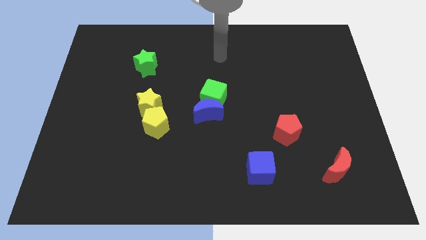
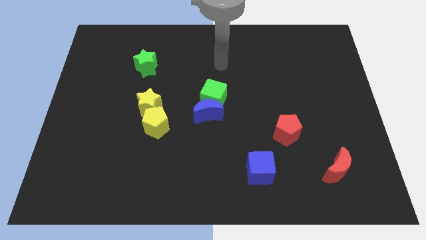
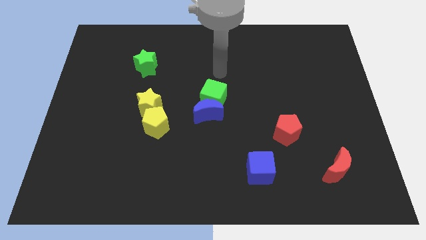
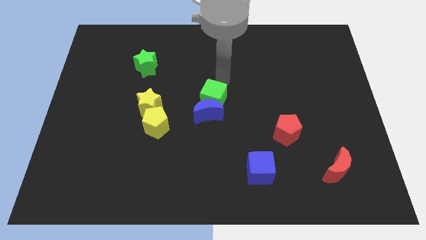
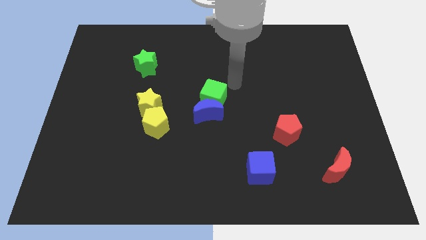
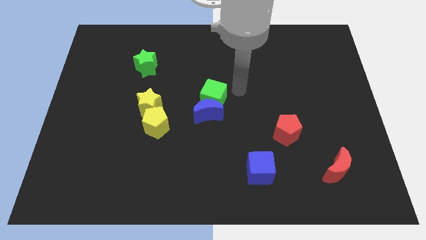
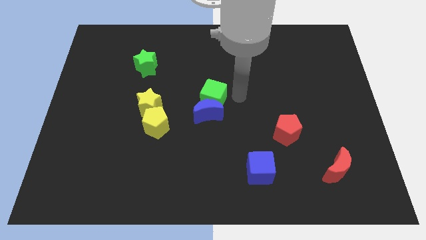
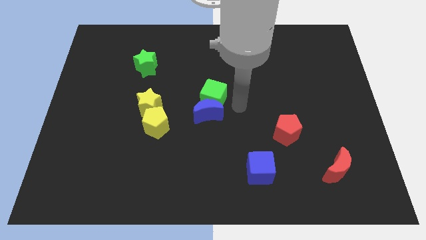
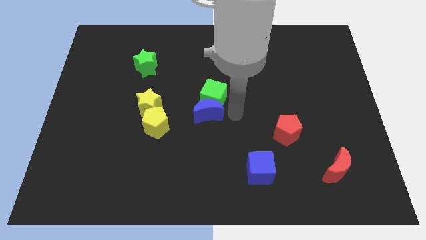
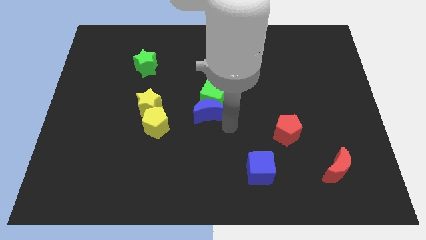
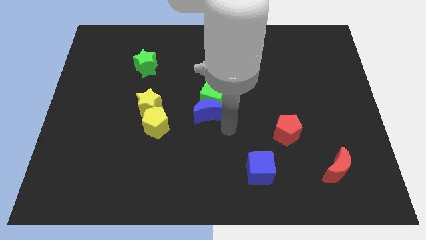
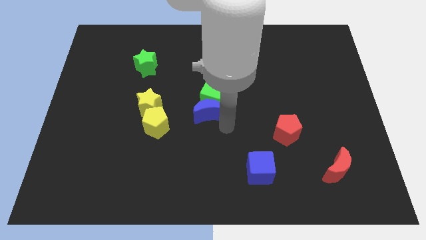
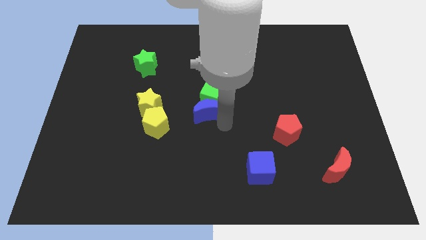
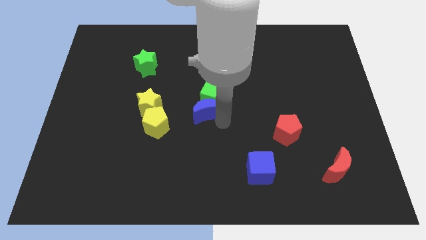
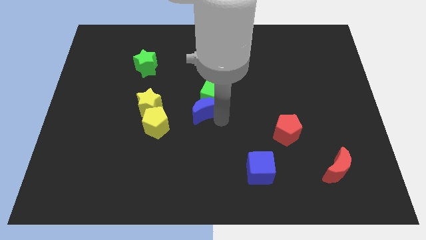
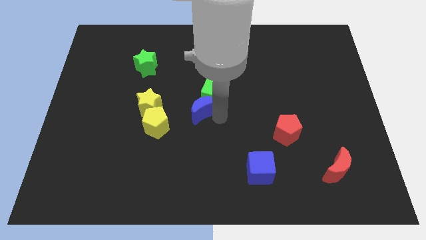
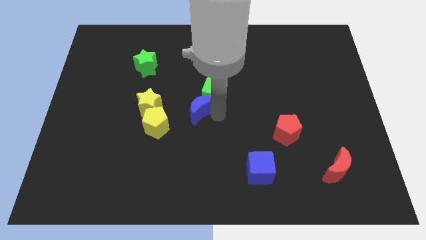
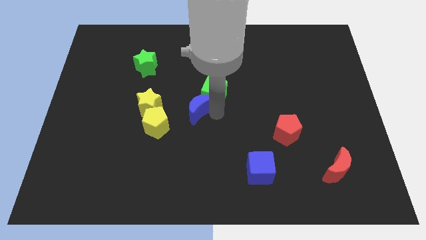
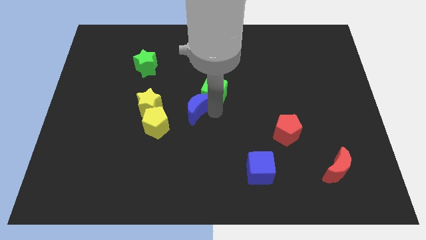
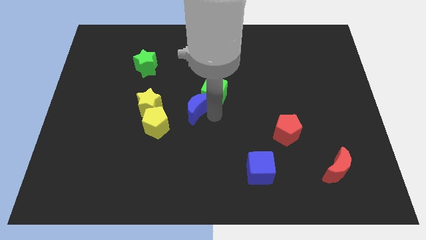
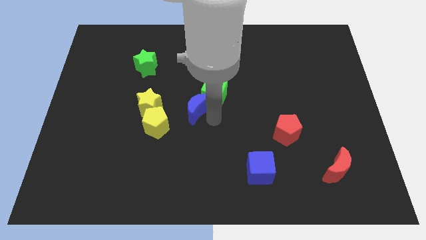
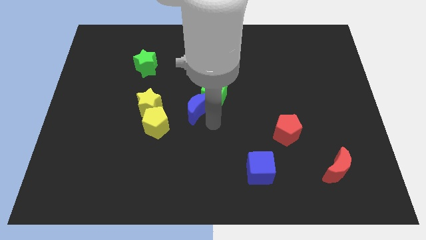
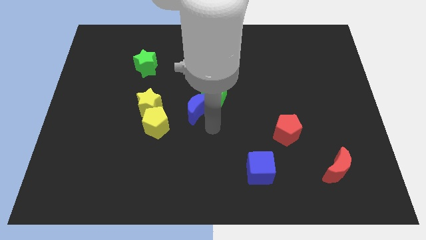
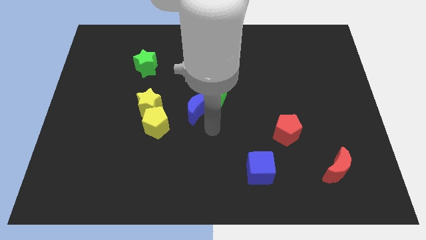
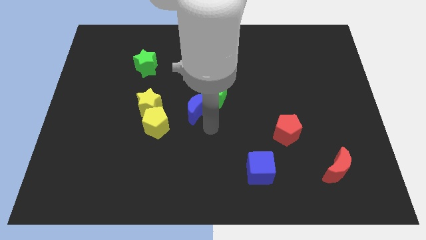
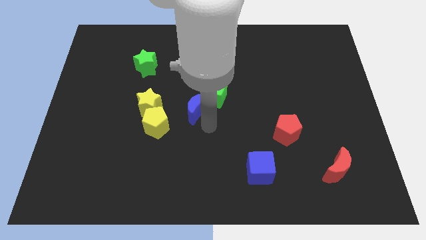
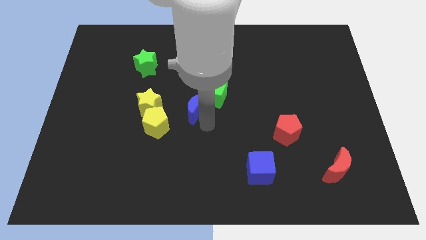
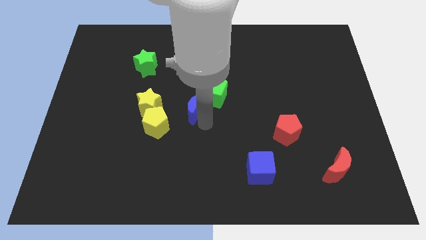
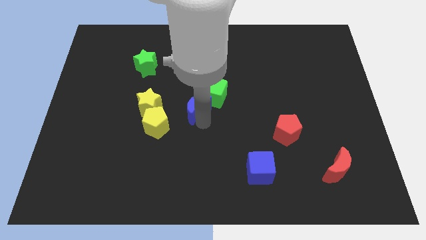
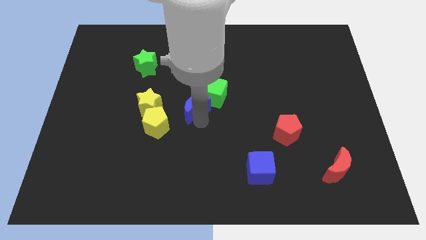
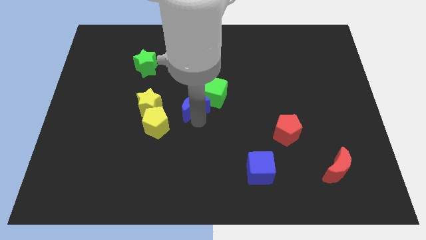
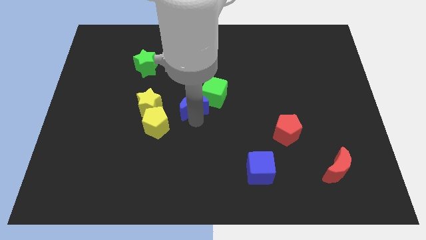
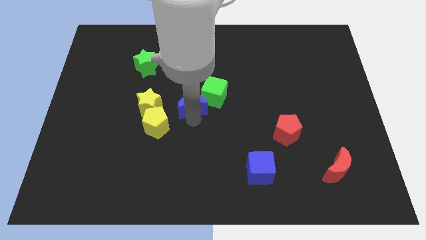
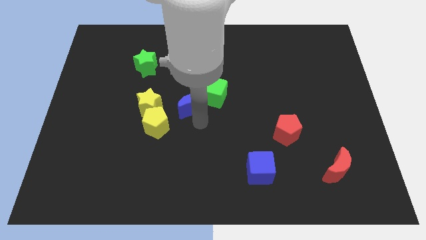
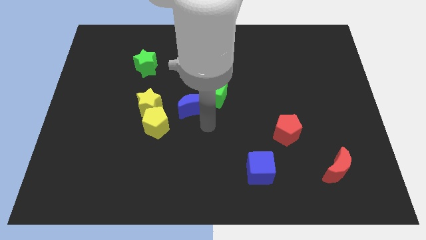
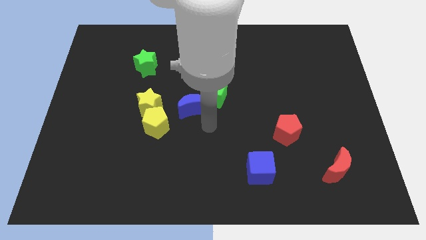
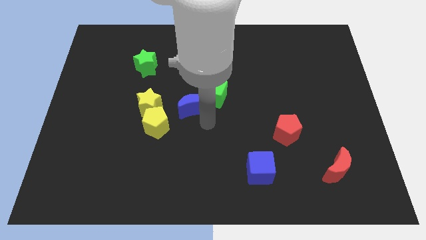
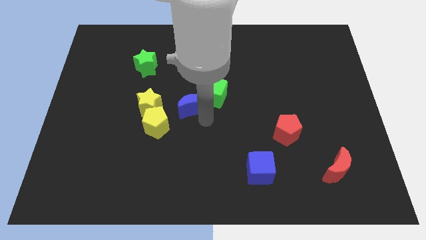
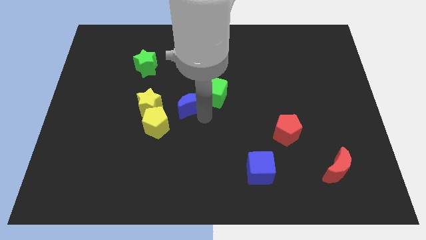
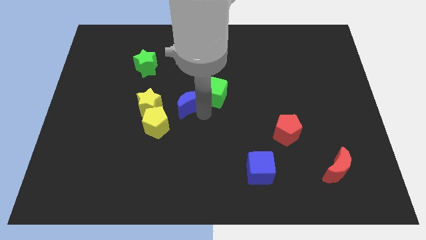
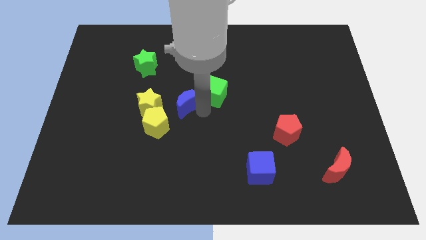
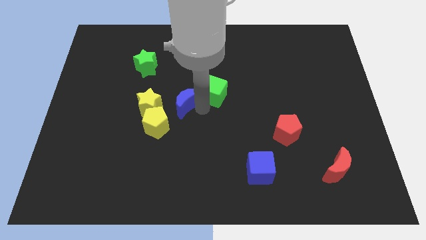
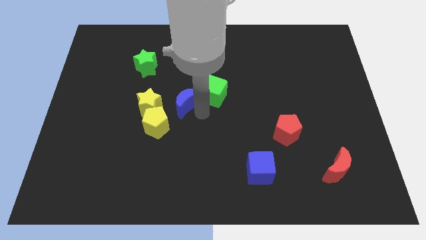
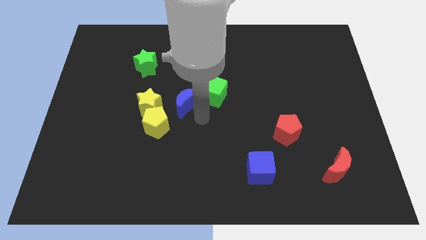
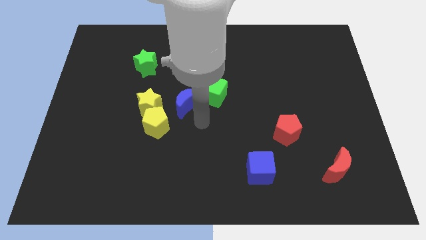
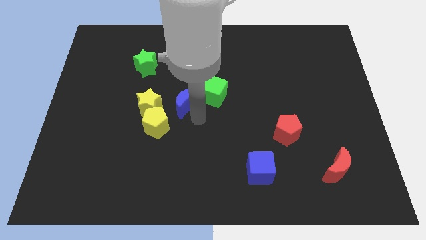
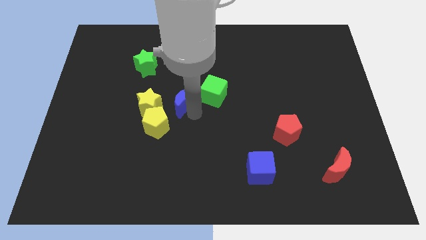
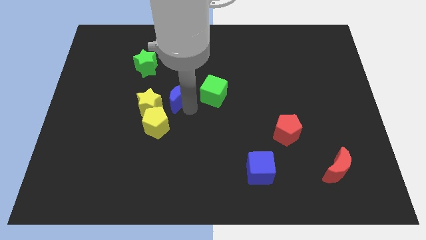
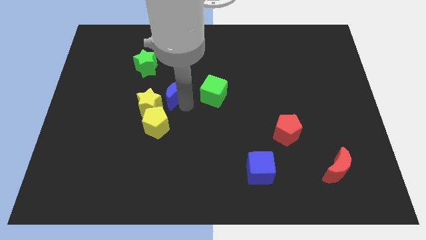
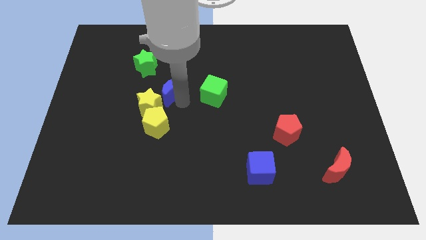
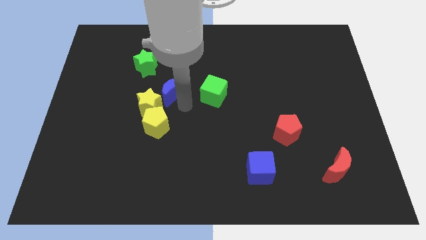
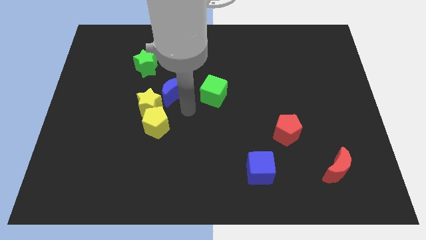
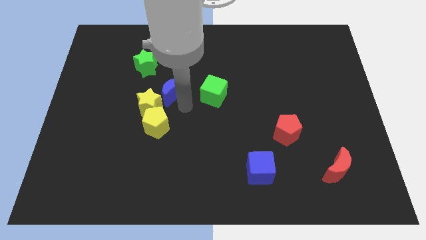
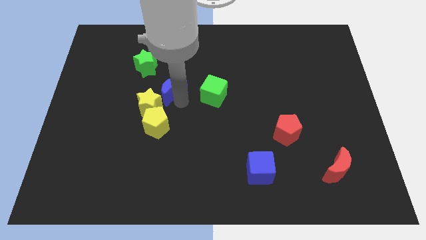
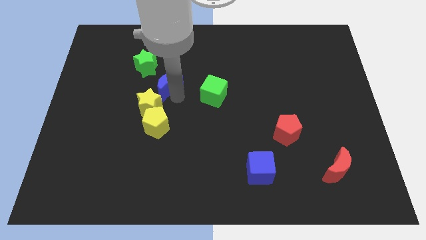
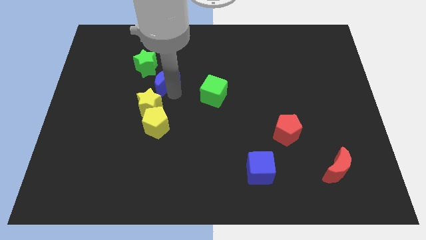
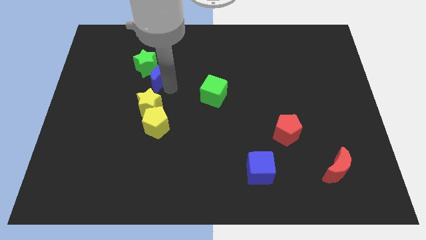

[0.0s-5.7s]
put the blue moon towards the green star

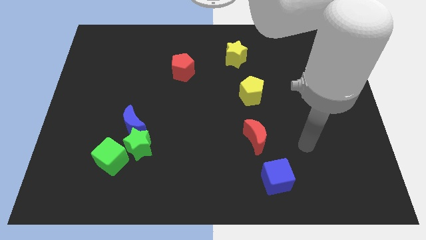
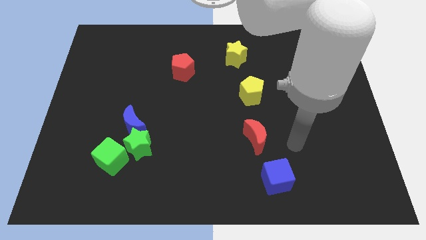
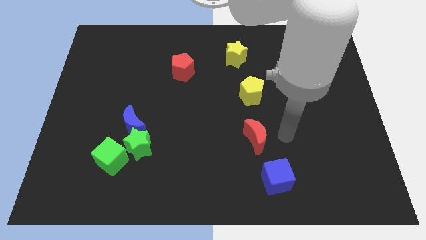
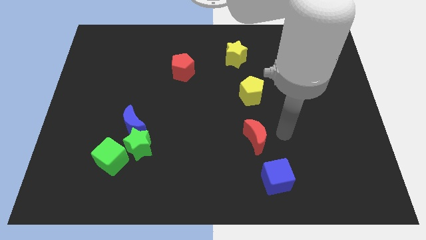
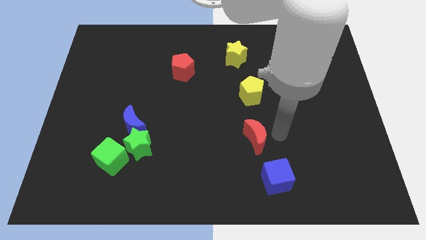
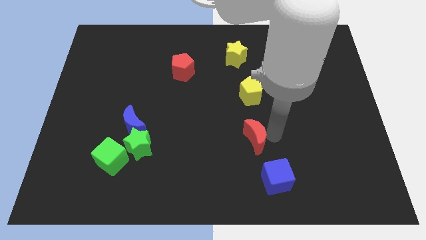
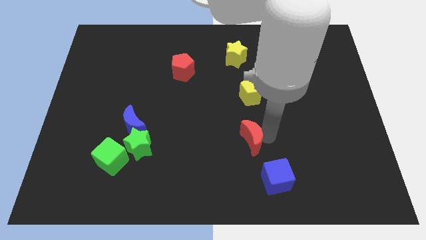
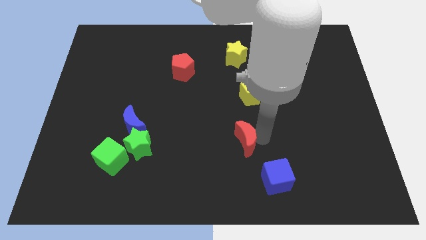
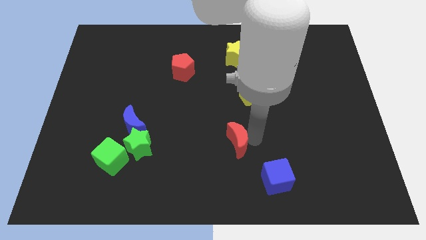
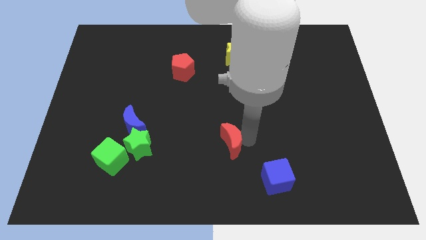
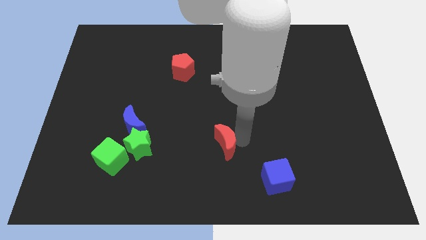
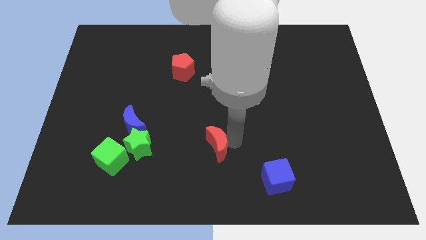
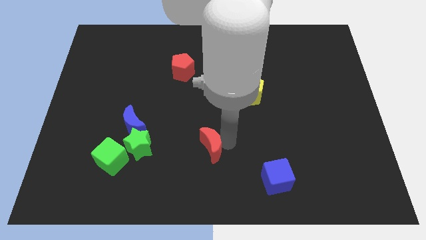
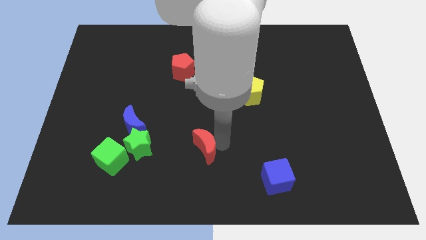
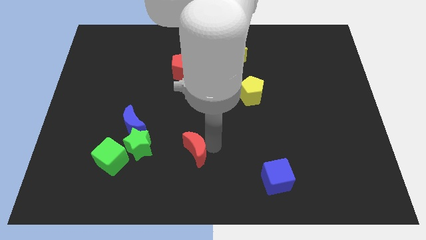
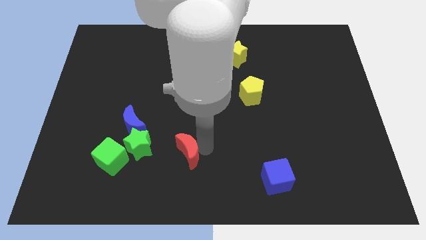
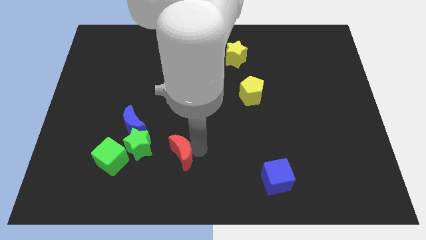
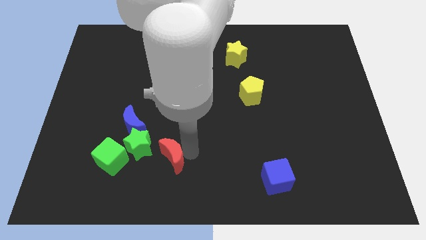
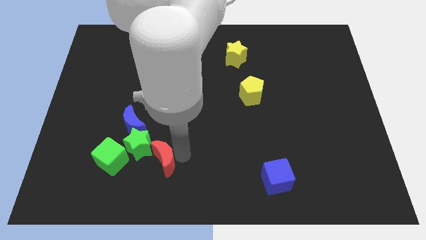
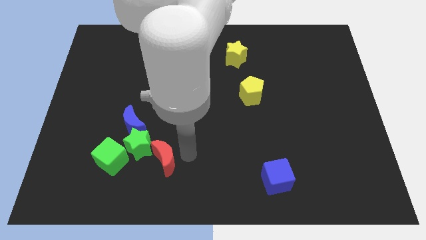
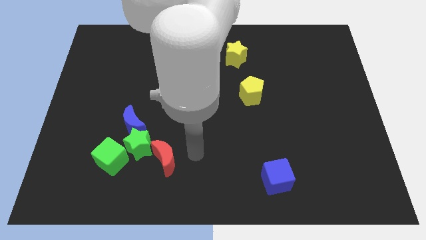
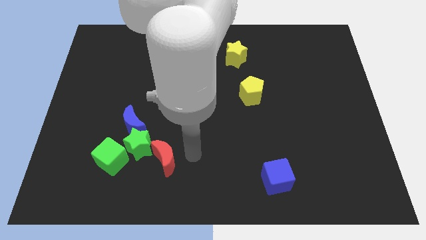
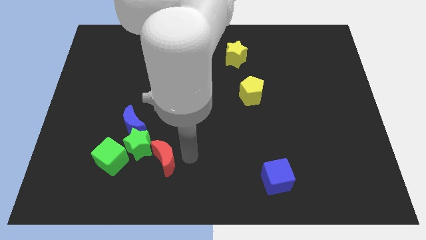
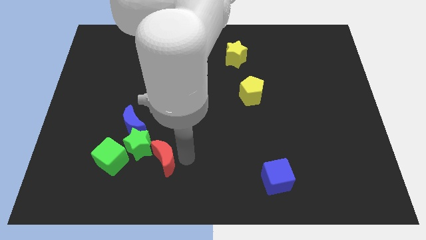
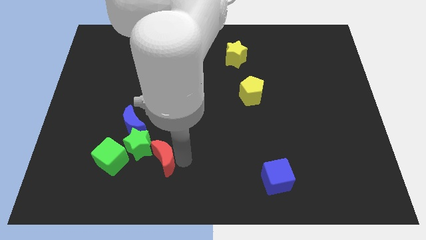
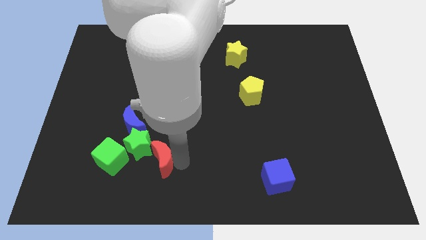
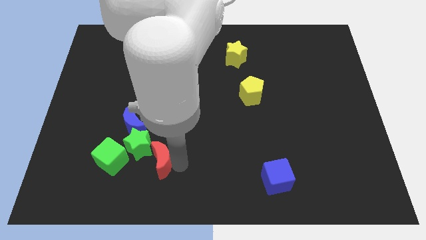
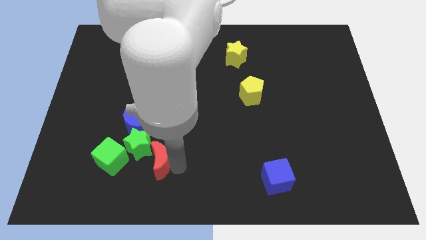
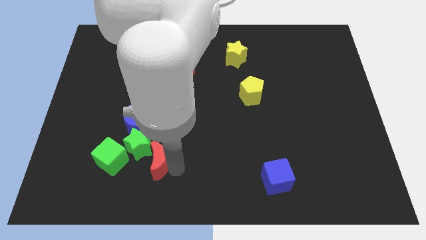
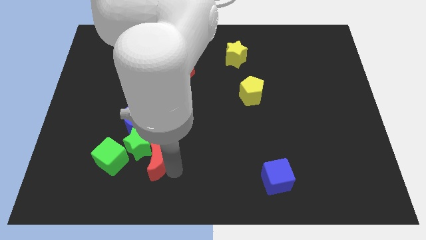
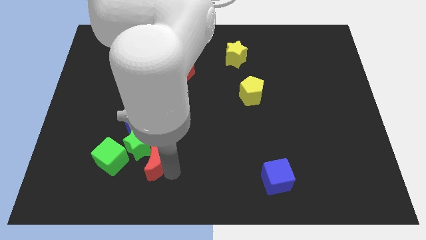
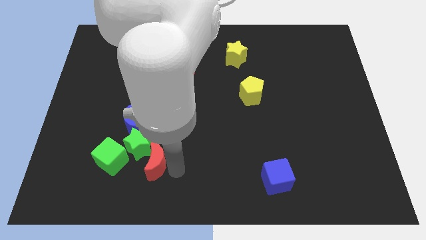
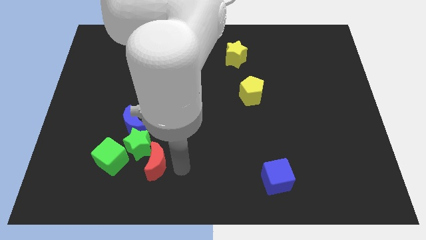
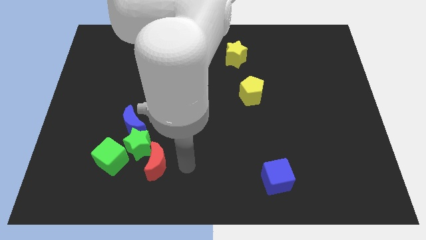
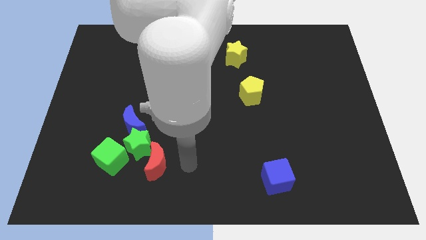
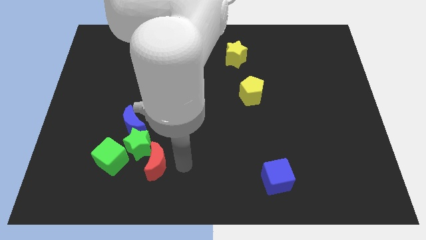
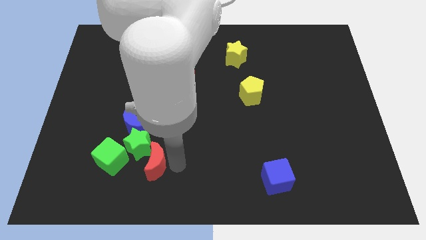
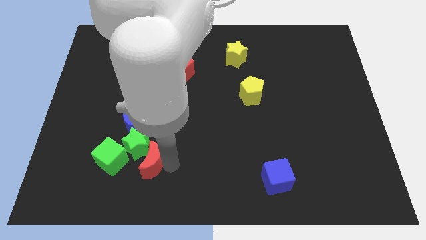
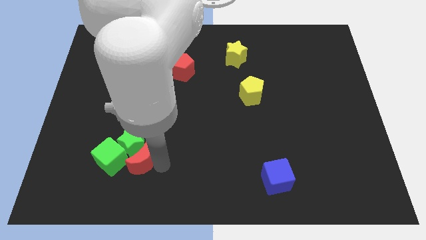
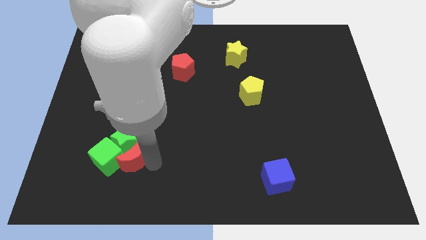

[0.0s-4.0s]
push the red moon towards the green cube
